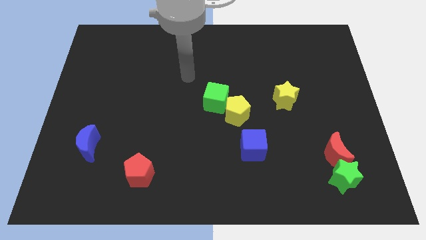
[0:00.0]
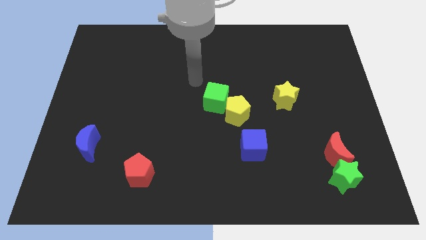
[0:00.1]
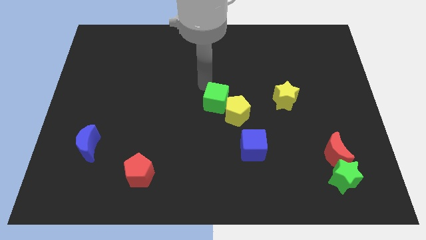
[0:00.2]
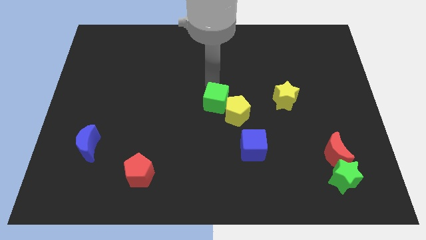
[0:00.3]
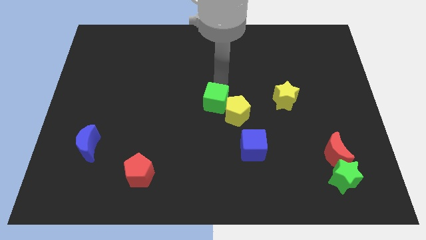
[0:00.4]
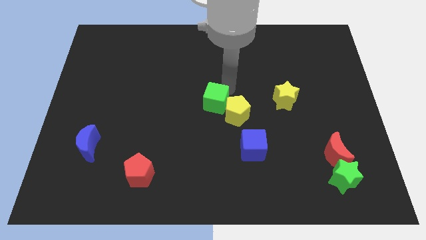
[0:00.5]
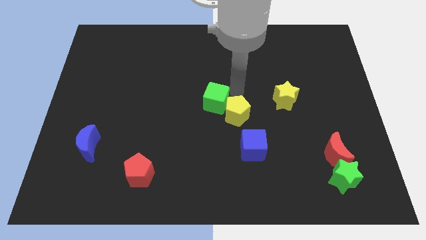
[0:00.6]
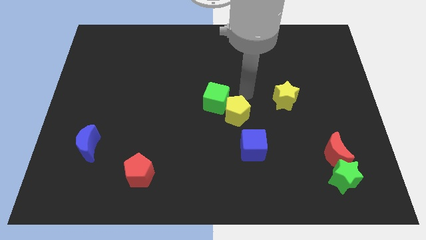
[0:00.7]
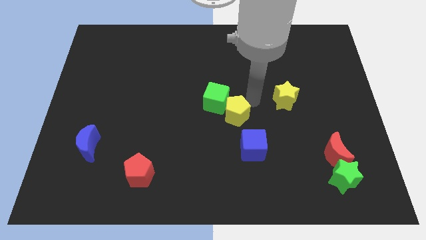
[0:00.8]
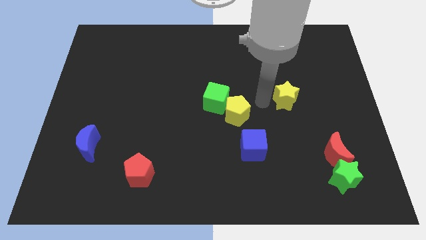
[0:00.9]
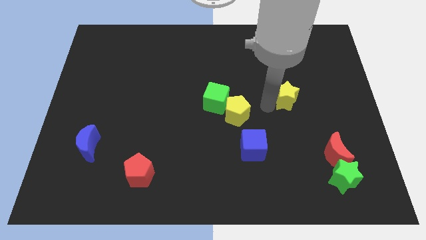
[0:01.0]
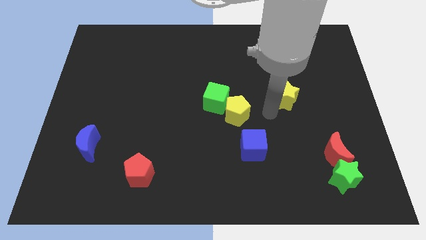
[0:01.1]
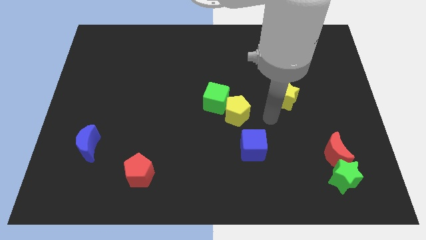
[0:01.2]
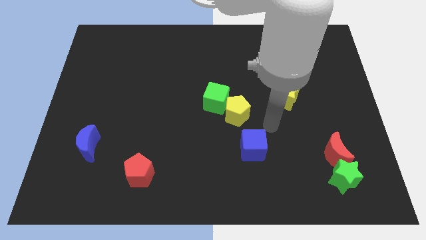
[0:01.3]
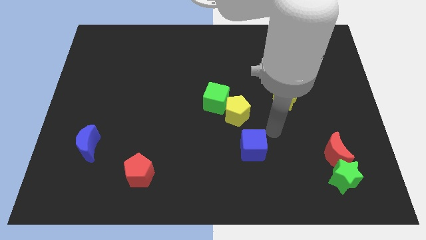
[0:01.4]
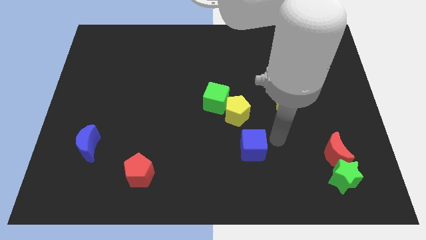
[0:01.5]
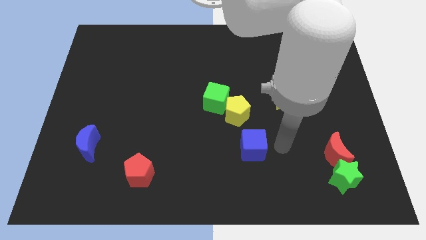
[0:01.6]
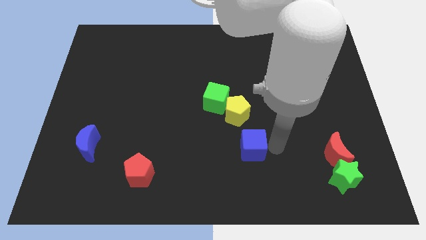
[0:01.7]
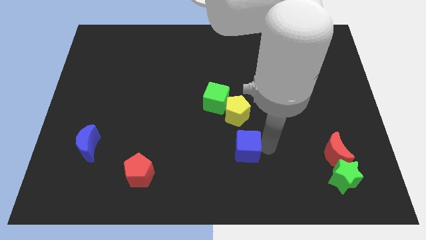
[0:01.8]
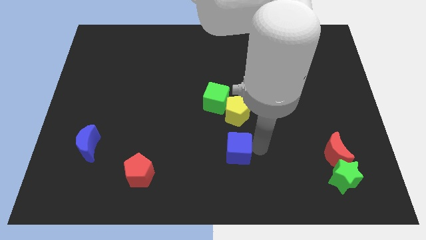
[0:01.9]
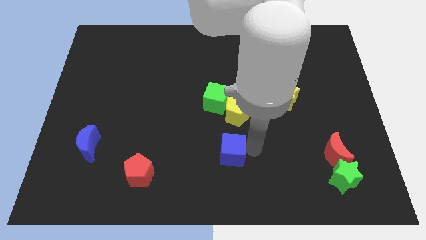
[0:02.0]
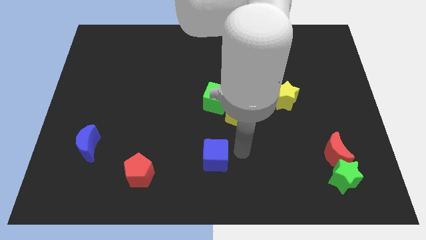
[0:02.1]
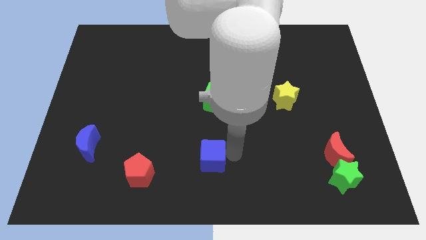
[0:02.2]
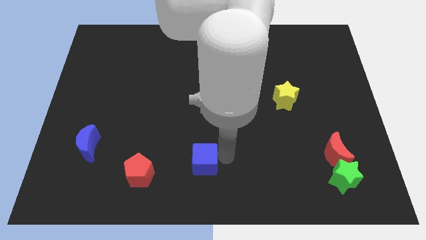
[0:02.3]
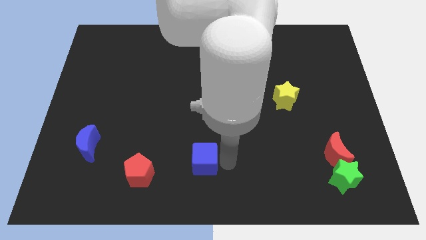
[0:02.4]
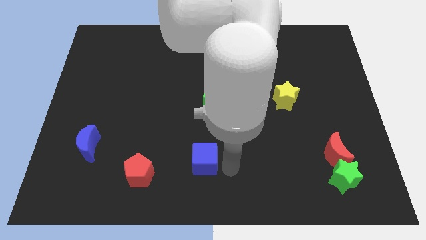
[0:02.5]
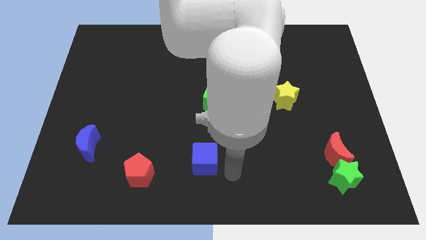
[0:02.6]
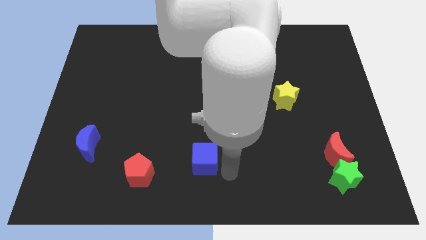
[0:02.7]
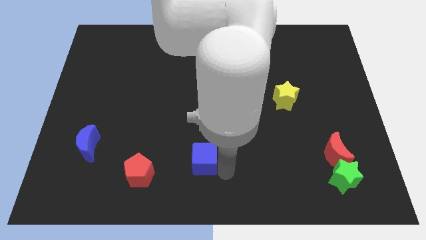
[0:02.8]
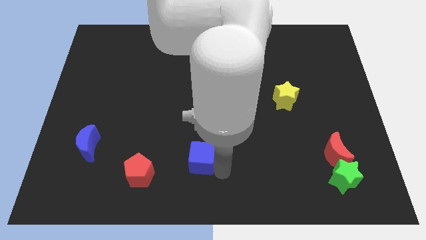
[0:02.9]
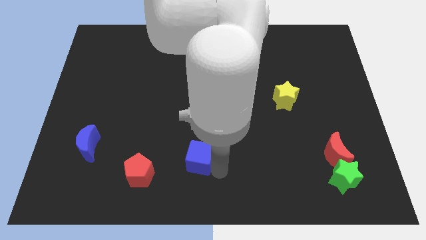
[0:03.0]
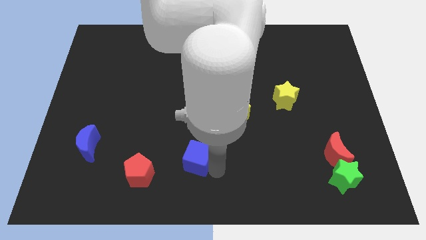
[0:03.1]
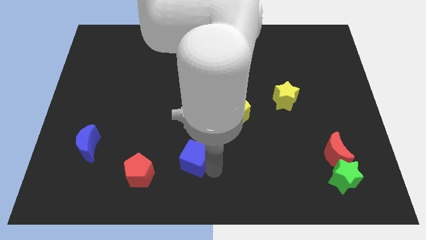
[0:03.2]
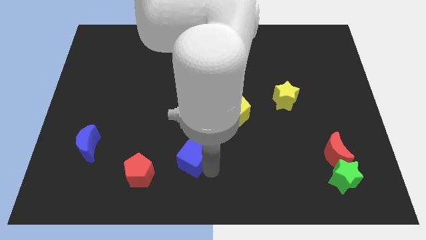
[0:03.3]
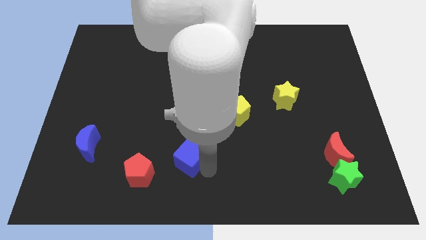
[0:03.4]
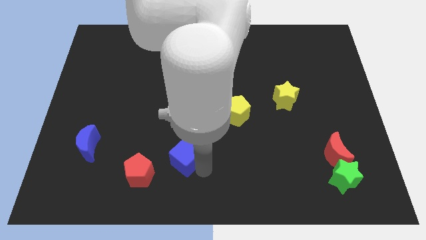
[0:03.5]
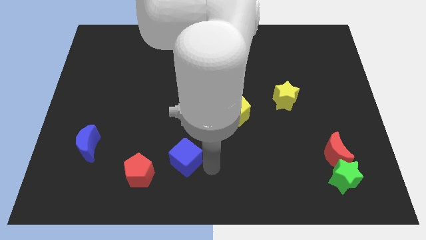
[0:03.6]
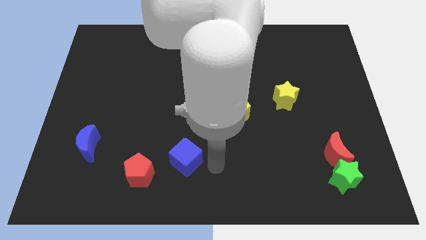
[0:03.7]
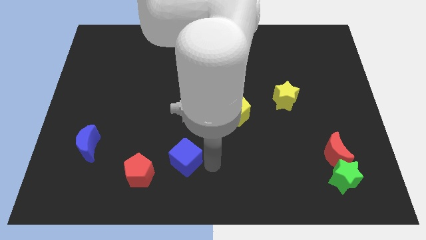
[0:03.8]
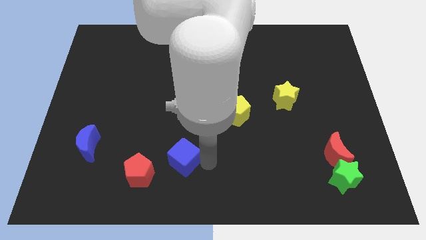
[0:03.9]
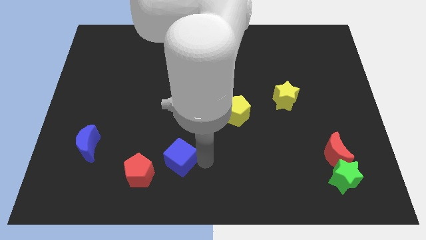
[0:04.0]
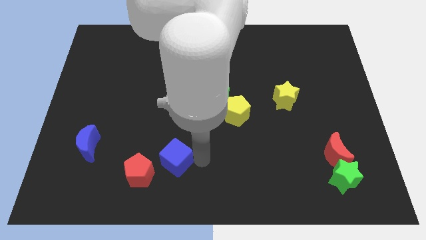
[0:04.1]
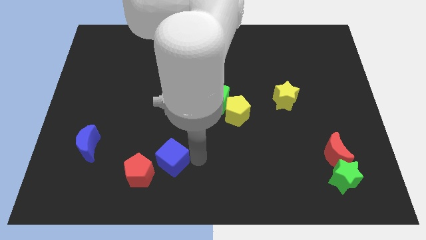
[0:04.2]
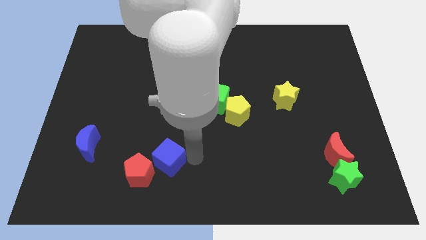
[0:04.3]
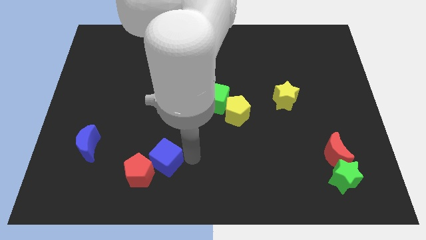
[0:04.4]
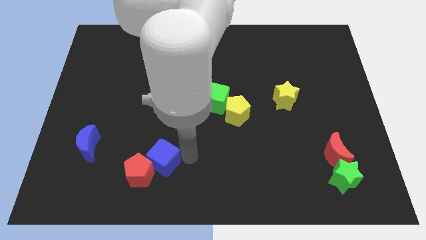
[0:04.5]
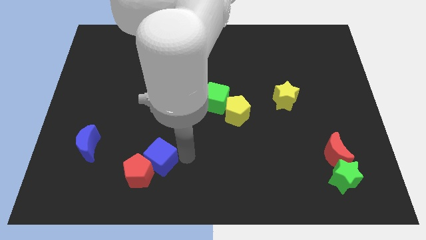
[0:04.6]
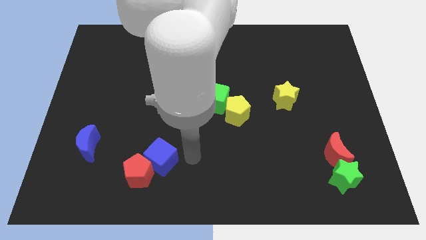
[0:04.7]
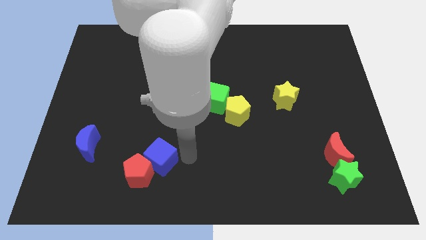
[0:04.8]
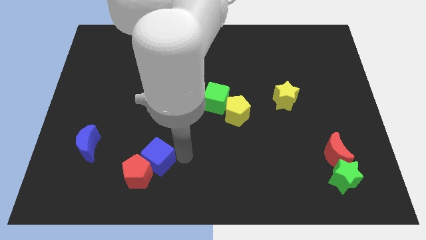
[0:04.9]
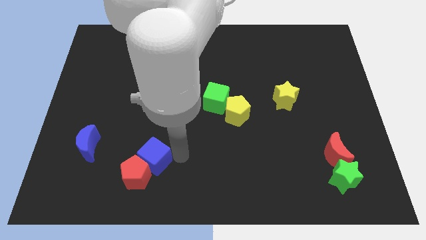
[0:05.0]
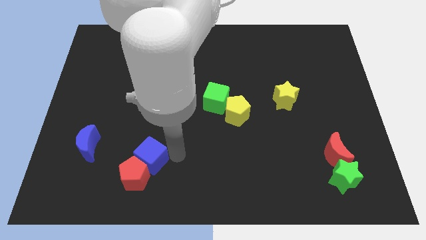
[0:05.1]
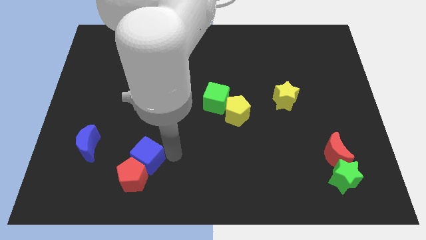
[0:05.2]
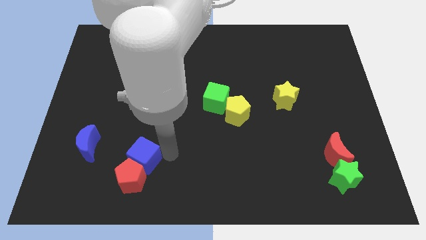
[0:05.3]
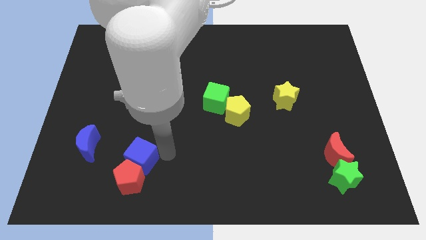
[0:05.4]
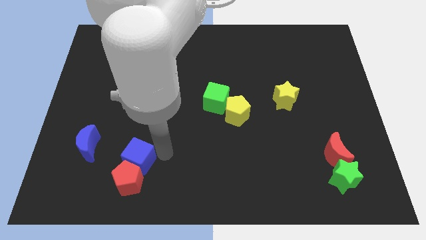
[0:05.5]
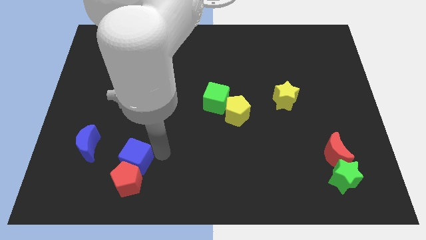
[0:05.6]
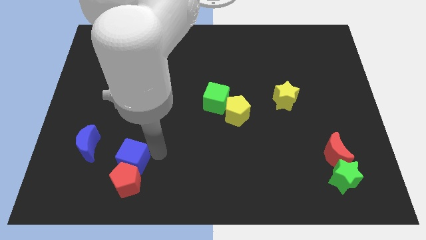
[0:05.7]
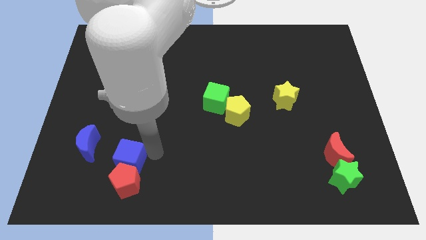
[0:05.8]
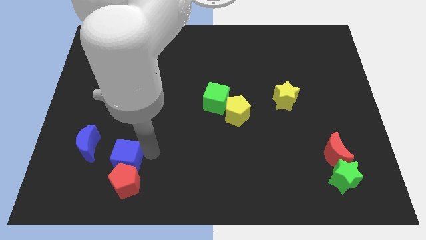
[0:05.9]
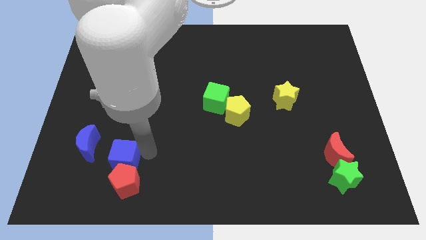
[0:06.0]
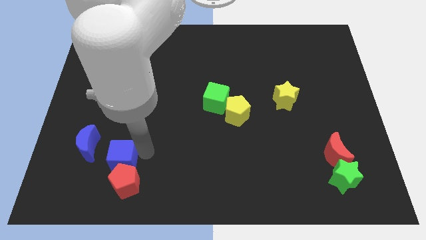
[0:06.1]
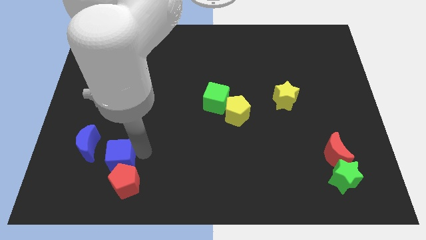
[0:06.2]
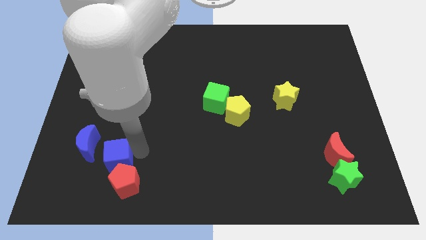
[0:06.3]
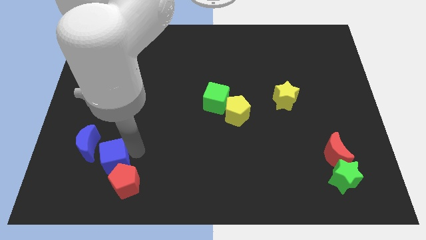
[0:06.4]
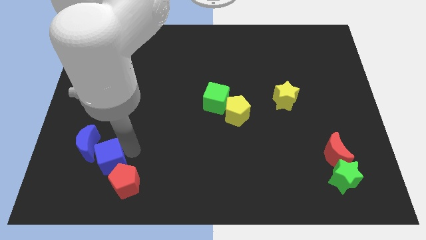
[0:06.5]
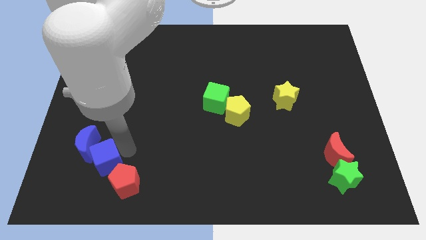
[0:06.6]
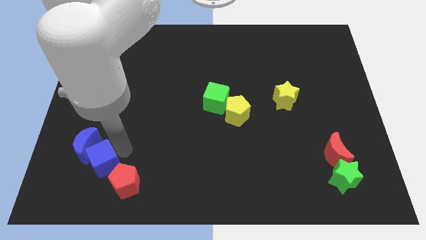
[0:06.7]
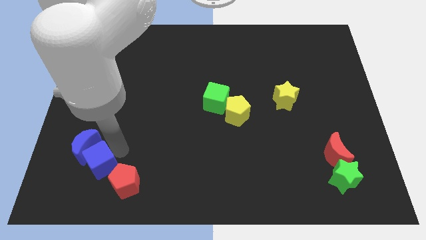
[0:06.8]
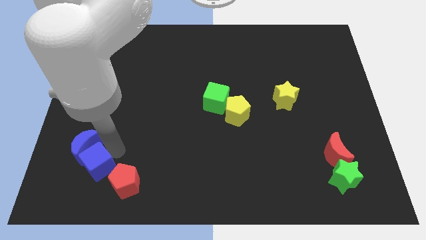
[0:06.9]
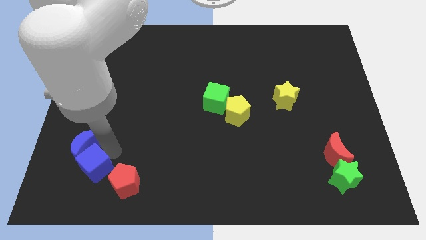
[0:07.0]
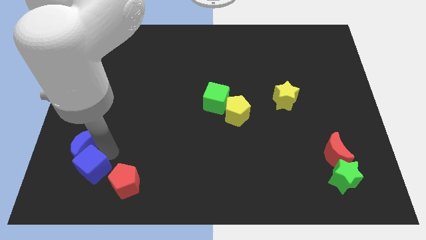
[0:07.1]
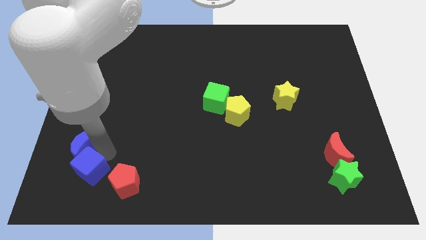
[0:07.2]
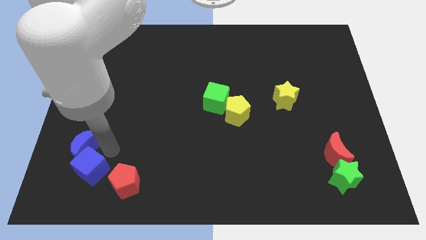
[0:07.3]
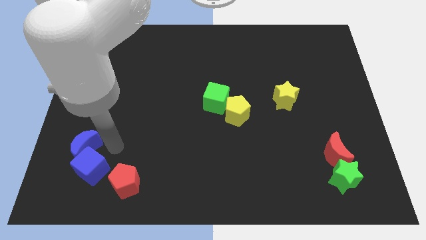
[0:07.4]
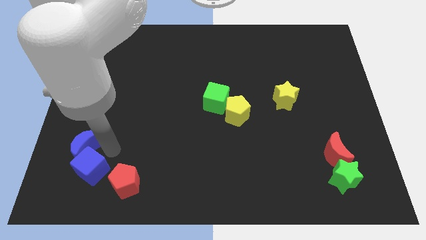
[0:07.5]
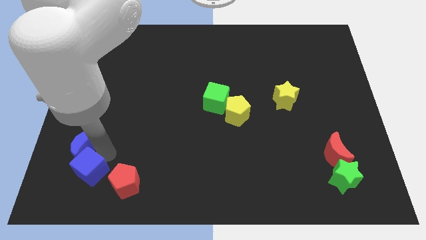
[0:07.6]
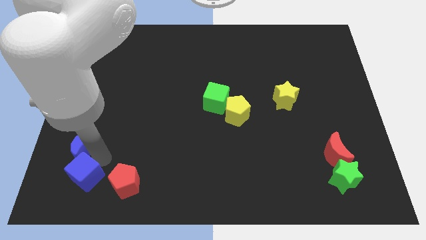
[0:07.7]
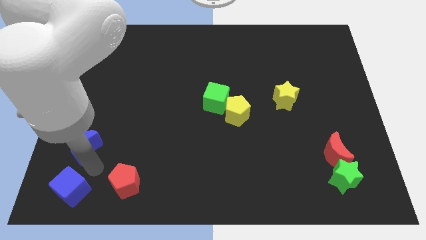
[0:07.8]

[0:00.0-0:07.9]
put the blue cube to the bottom left corner
